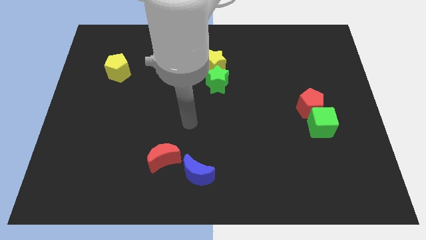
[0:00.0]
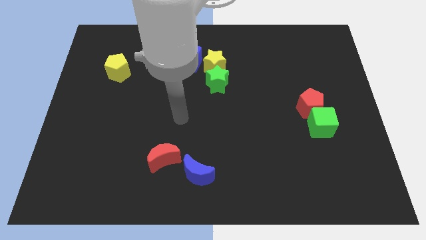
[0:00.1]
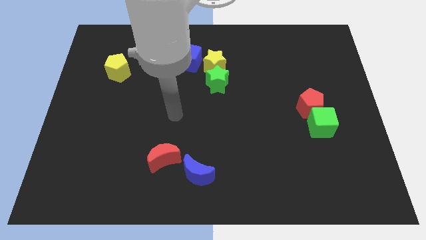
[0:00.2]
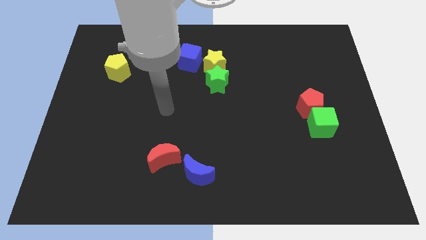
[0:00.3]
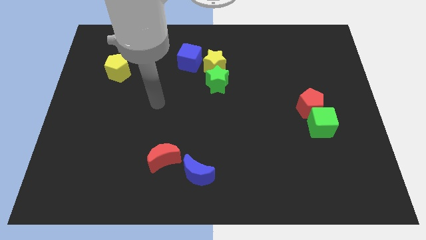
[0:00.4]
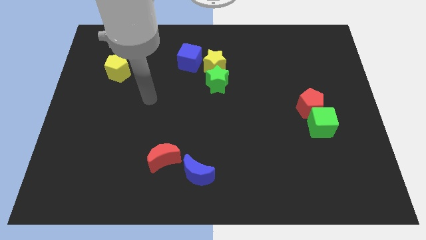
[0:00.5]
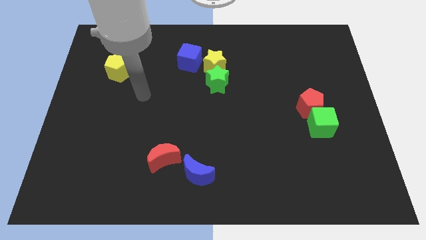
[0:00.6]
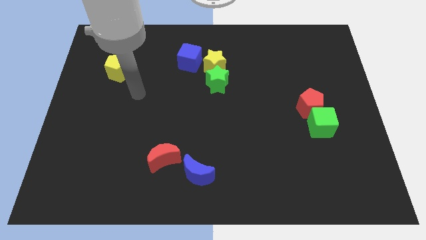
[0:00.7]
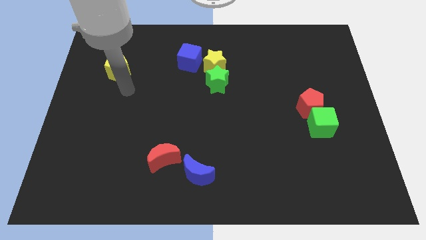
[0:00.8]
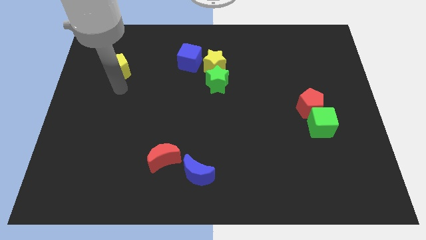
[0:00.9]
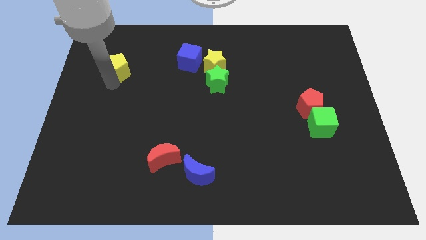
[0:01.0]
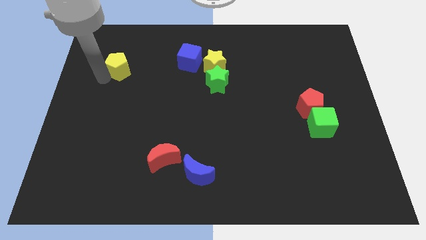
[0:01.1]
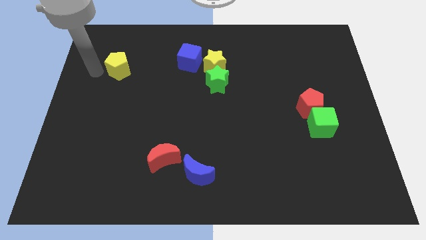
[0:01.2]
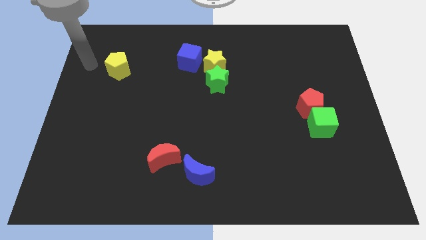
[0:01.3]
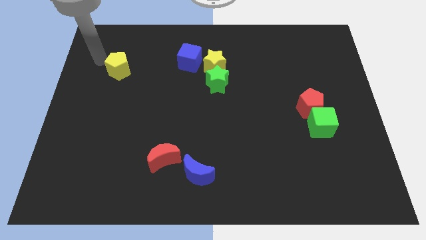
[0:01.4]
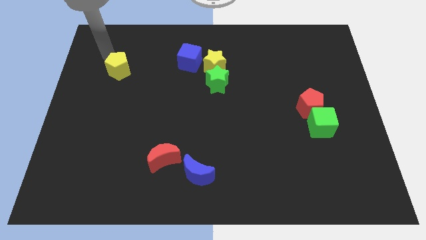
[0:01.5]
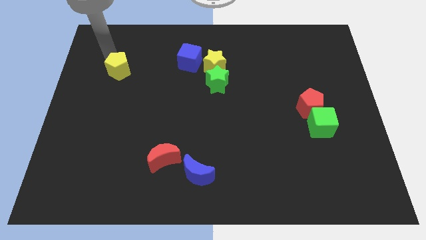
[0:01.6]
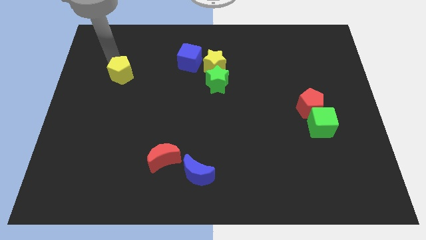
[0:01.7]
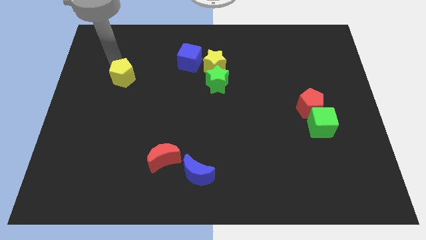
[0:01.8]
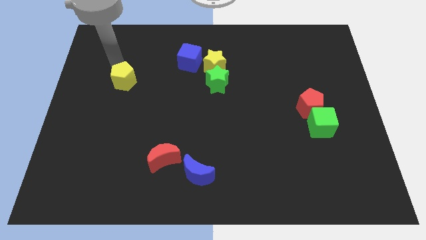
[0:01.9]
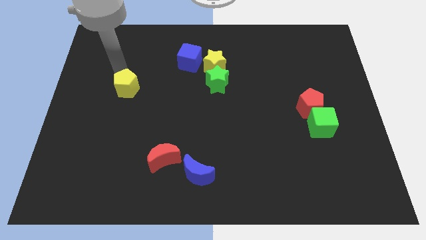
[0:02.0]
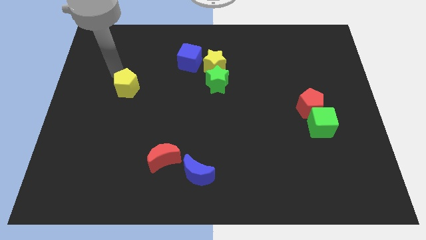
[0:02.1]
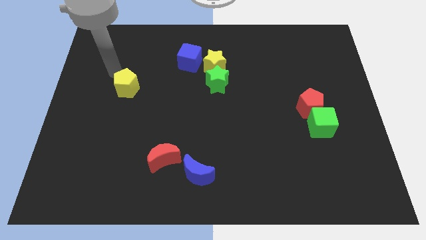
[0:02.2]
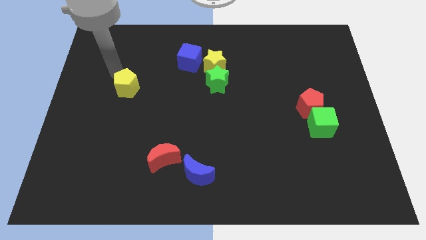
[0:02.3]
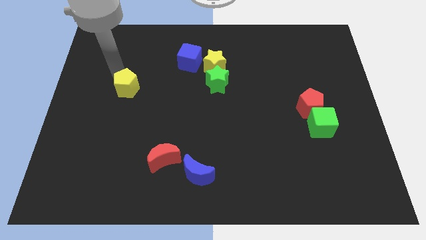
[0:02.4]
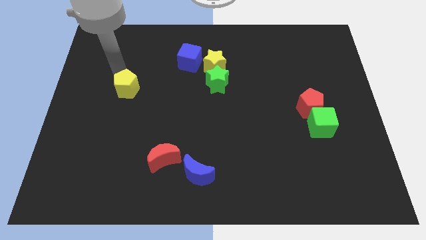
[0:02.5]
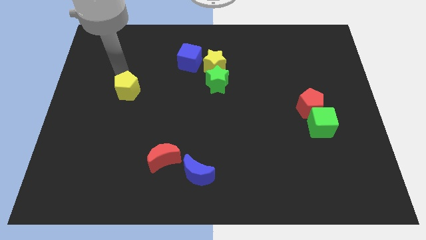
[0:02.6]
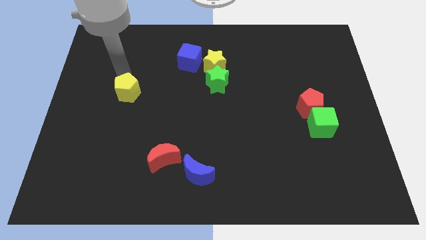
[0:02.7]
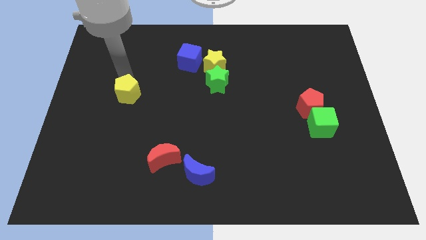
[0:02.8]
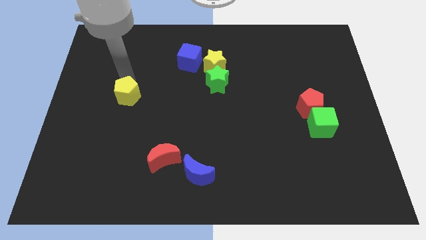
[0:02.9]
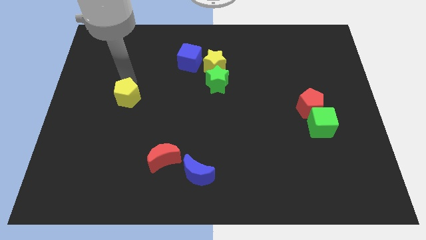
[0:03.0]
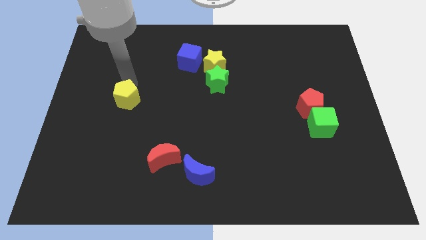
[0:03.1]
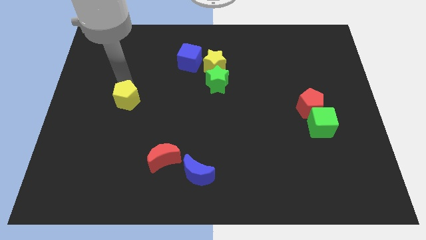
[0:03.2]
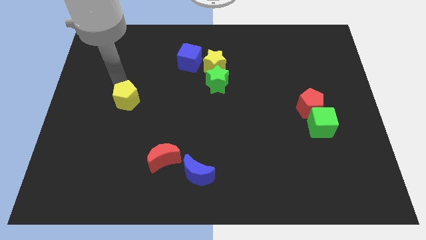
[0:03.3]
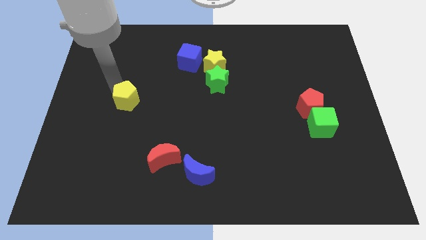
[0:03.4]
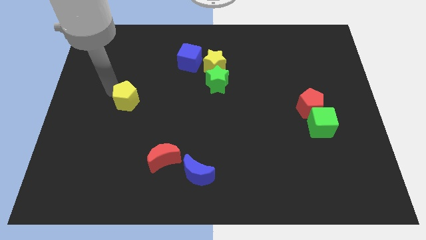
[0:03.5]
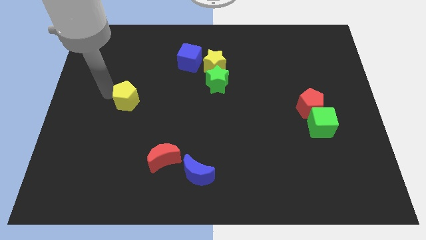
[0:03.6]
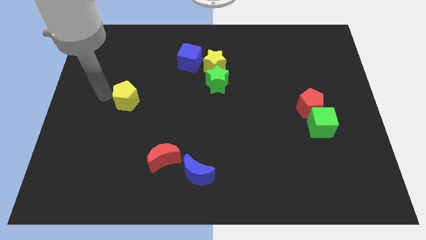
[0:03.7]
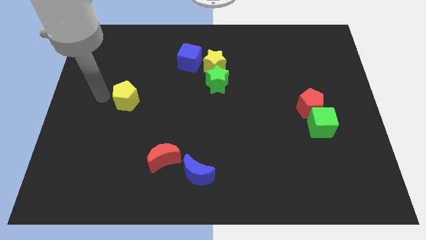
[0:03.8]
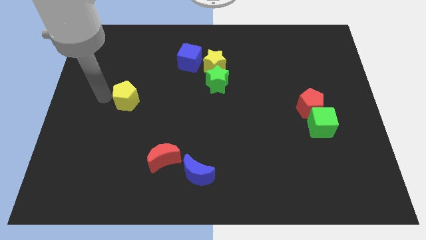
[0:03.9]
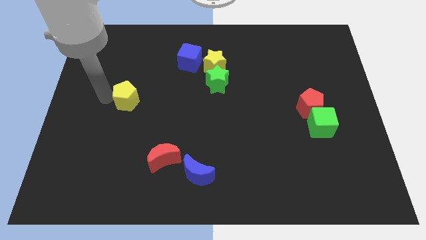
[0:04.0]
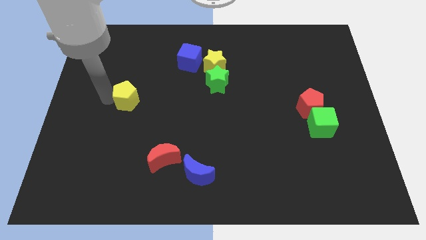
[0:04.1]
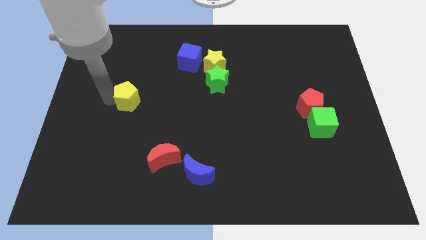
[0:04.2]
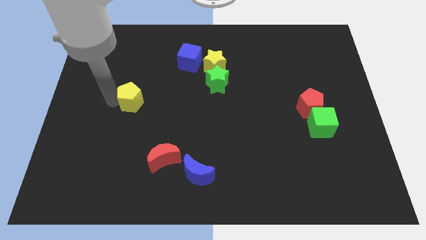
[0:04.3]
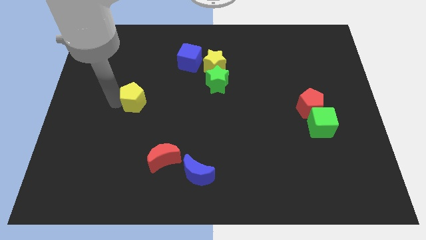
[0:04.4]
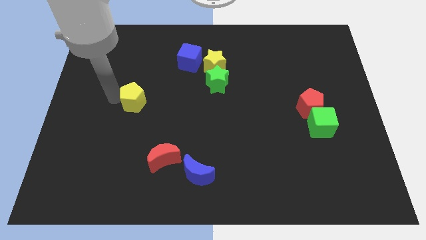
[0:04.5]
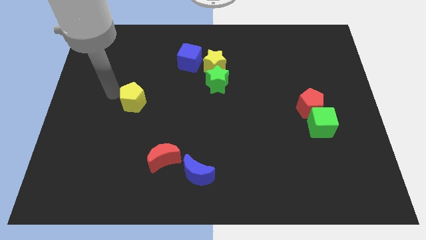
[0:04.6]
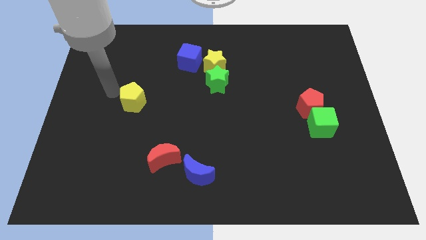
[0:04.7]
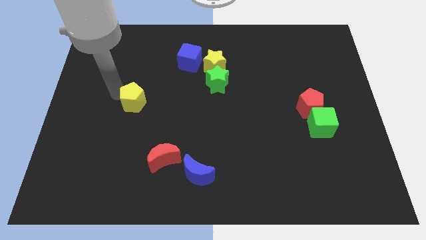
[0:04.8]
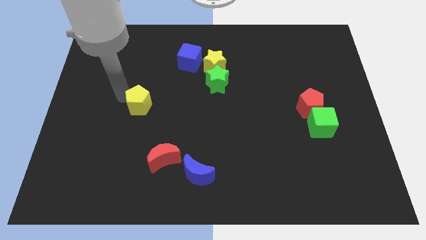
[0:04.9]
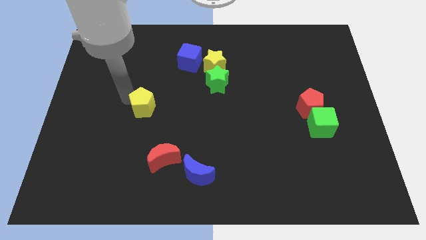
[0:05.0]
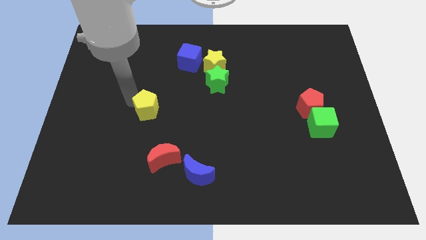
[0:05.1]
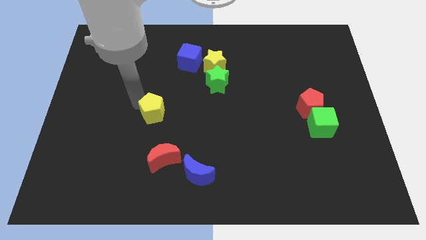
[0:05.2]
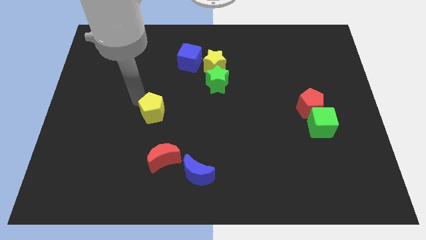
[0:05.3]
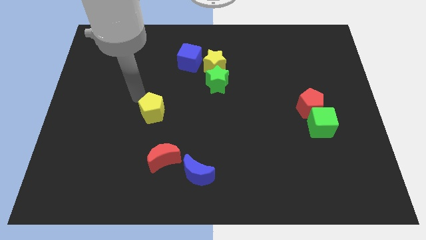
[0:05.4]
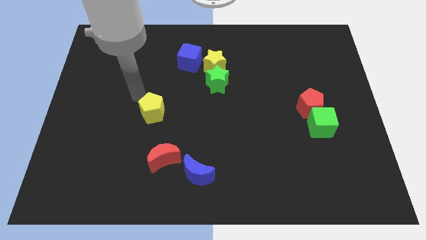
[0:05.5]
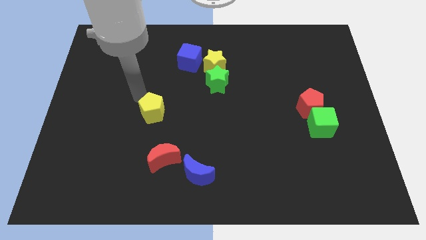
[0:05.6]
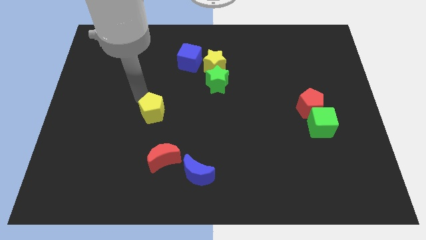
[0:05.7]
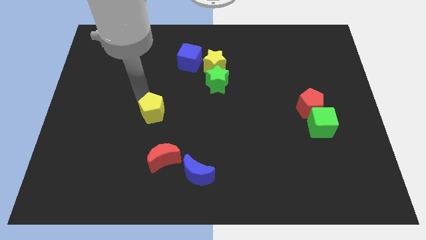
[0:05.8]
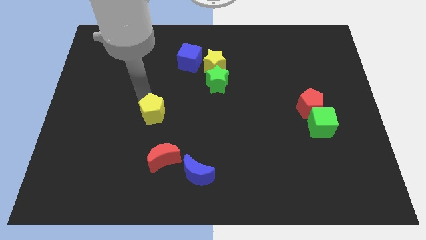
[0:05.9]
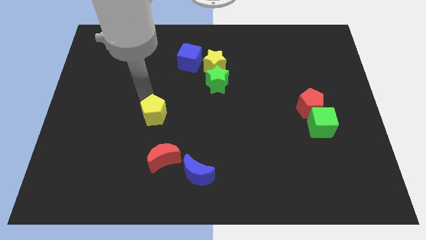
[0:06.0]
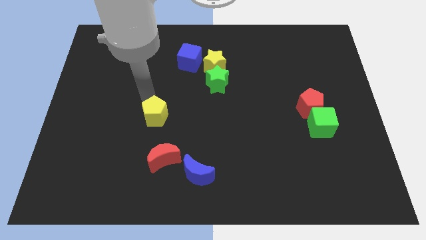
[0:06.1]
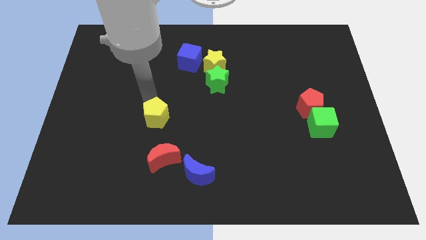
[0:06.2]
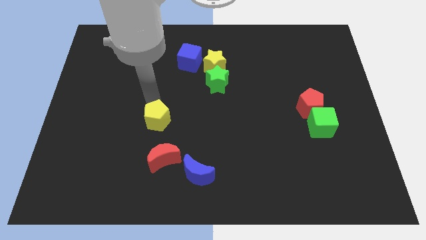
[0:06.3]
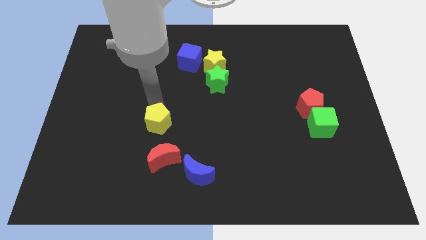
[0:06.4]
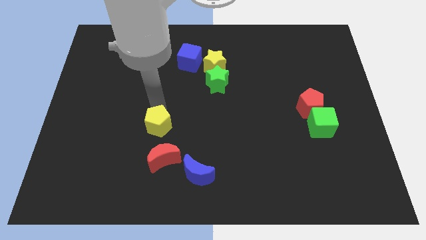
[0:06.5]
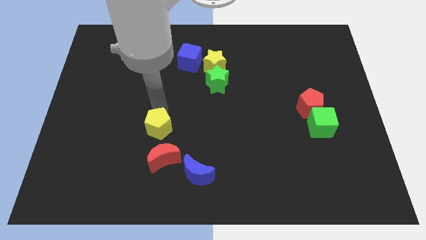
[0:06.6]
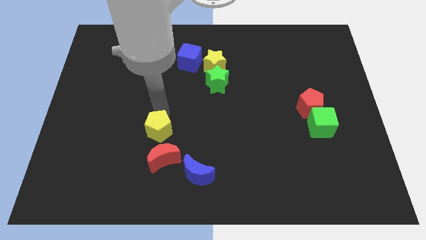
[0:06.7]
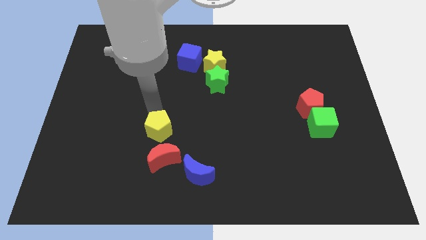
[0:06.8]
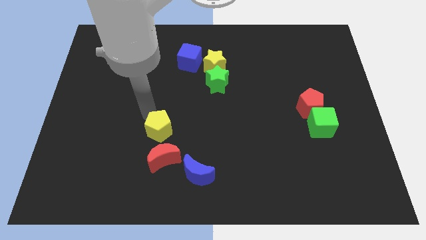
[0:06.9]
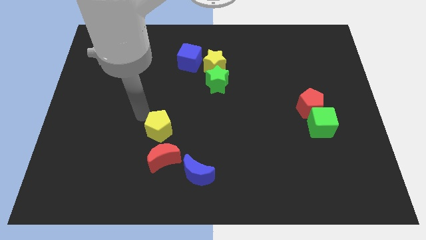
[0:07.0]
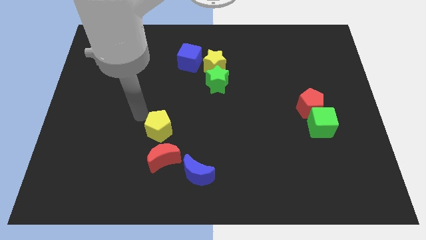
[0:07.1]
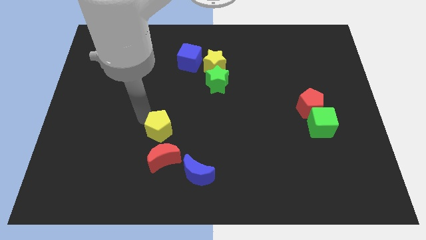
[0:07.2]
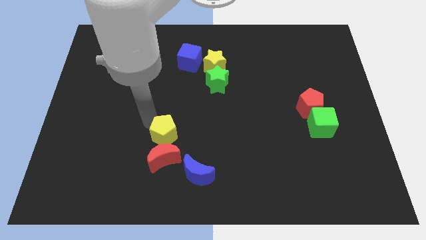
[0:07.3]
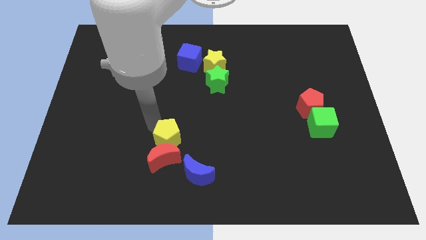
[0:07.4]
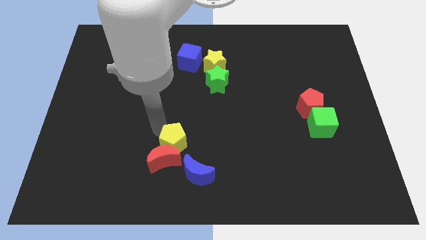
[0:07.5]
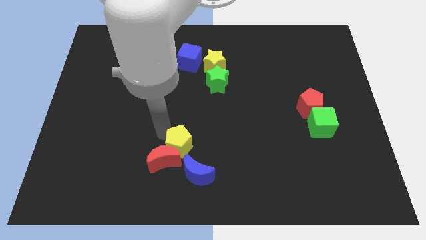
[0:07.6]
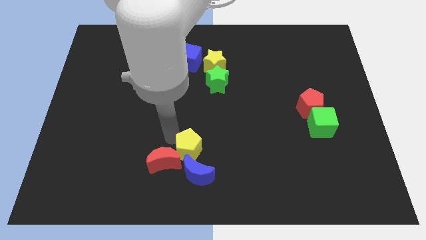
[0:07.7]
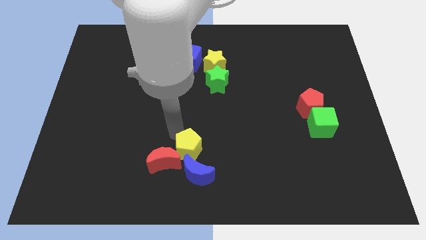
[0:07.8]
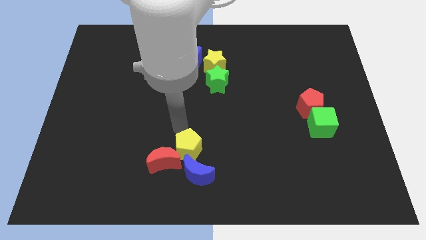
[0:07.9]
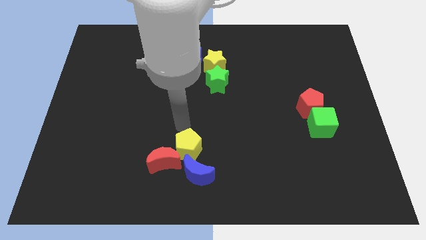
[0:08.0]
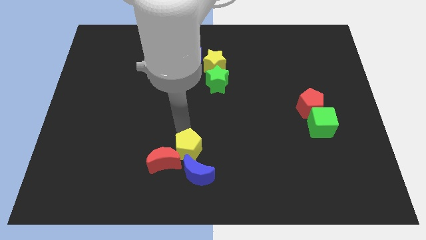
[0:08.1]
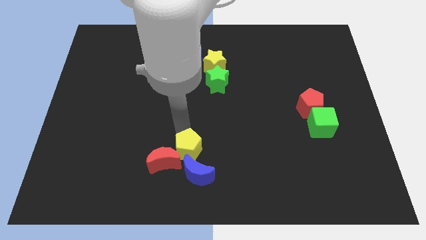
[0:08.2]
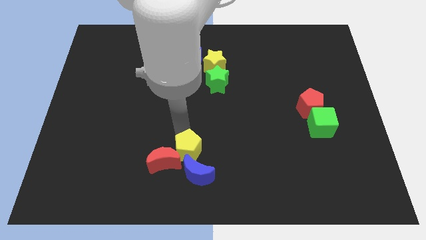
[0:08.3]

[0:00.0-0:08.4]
move the yellow pentagon close to the blue moon
